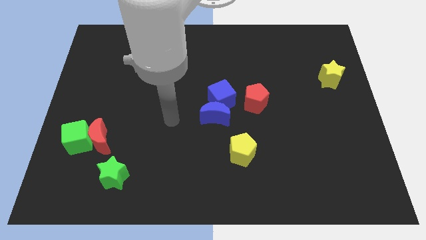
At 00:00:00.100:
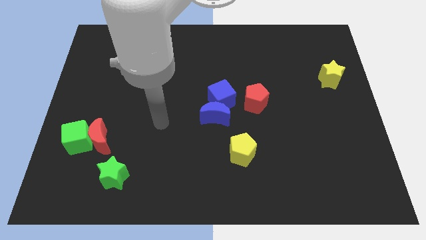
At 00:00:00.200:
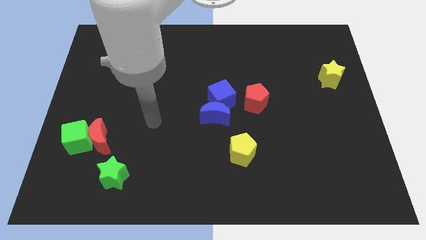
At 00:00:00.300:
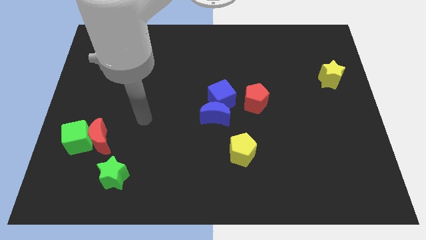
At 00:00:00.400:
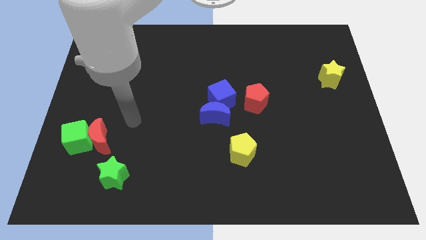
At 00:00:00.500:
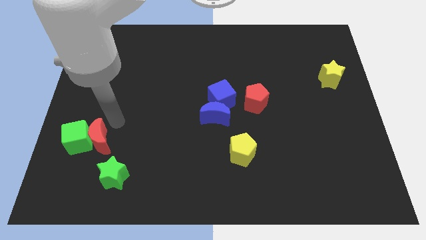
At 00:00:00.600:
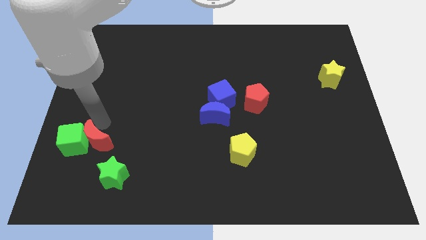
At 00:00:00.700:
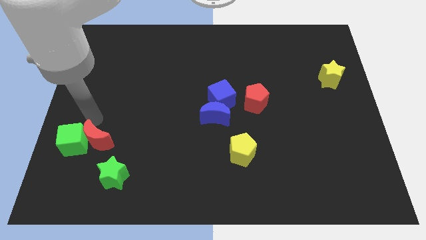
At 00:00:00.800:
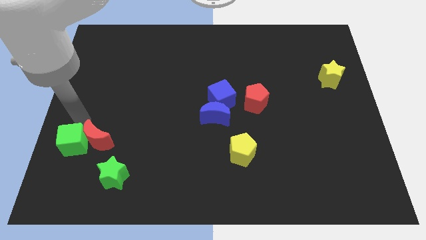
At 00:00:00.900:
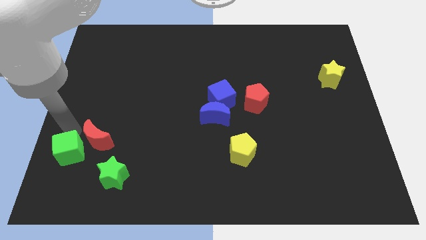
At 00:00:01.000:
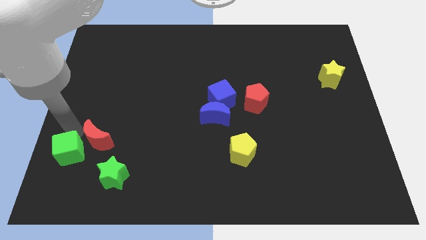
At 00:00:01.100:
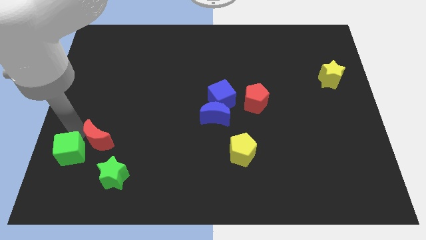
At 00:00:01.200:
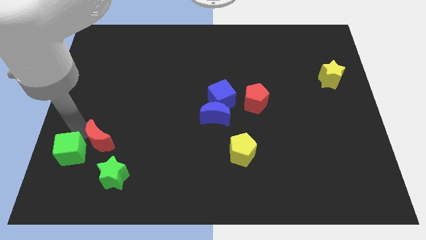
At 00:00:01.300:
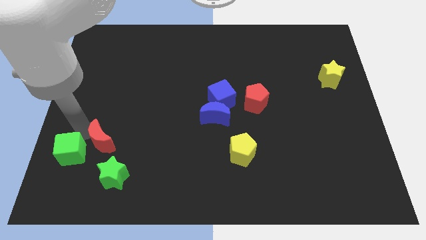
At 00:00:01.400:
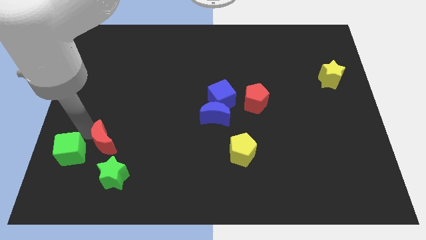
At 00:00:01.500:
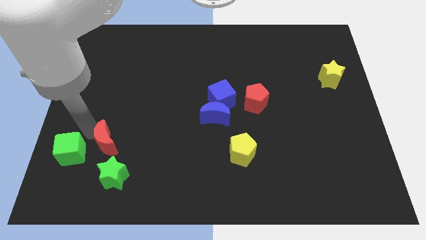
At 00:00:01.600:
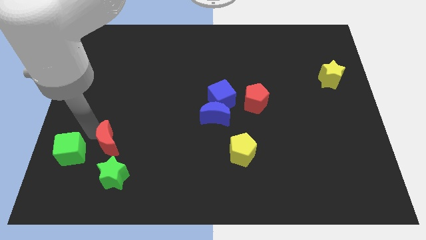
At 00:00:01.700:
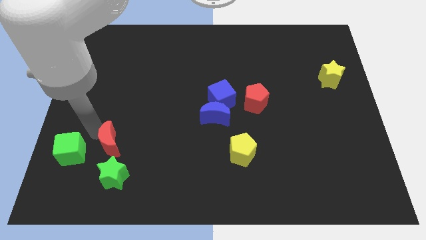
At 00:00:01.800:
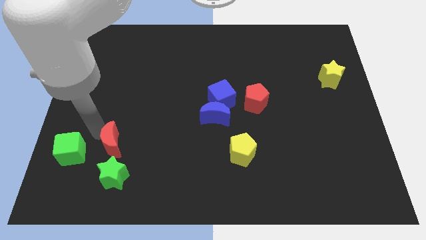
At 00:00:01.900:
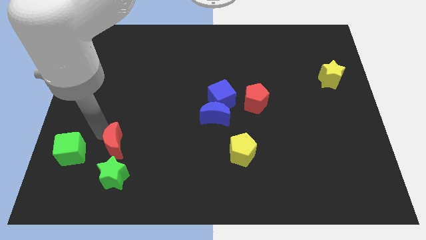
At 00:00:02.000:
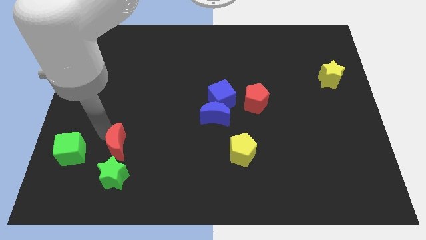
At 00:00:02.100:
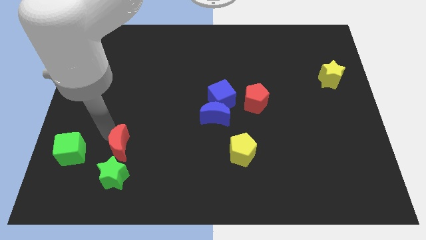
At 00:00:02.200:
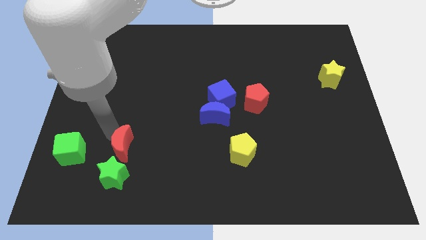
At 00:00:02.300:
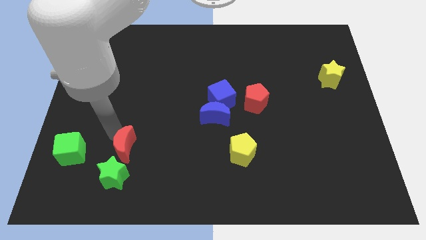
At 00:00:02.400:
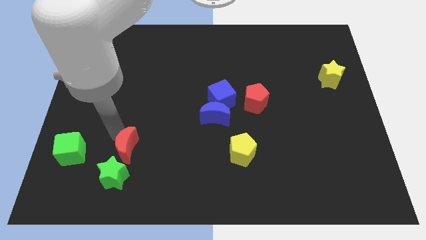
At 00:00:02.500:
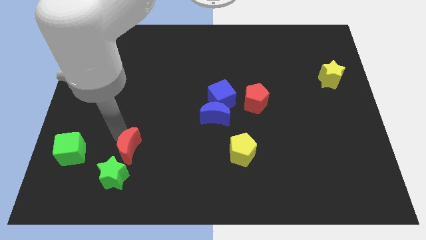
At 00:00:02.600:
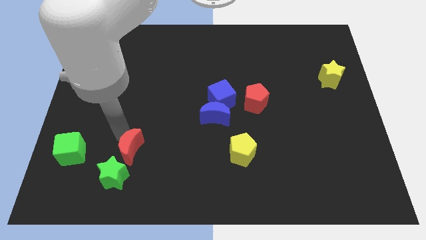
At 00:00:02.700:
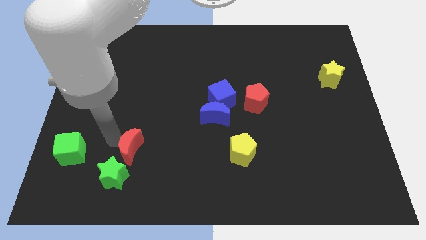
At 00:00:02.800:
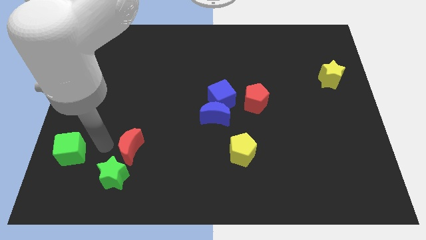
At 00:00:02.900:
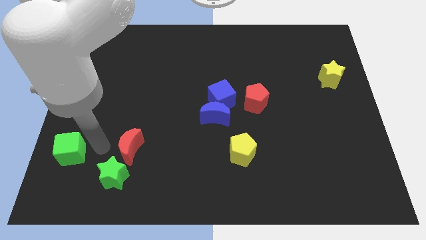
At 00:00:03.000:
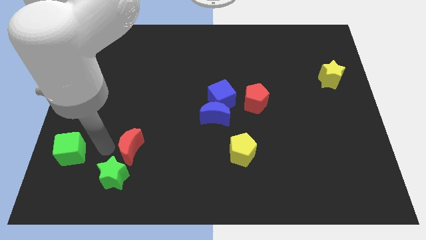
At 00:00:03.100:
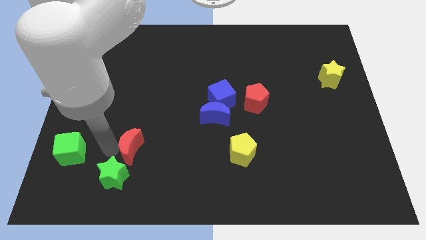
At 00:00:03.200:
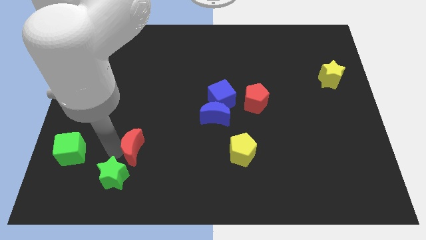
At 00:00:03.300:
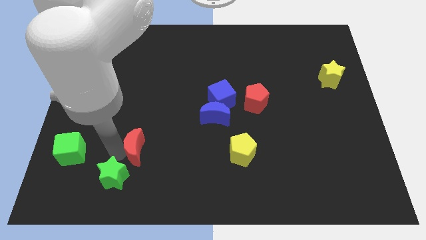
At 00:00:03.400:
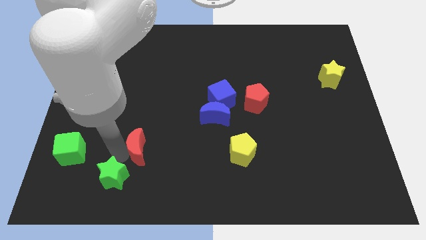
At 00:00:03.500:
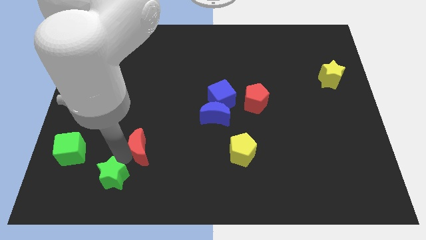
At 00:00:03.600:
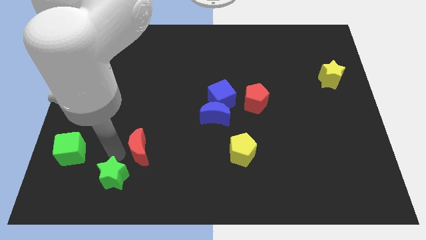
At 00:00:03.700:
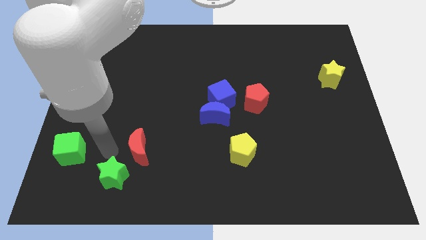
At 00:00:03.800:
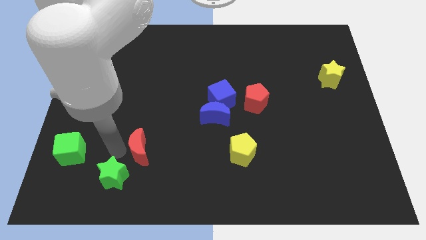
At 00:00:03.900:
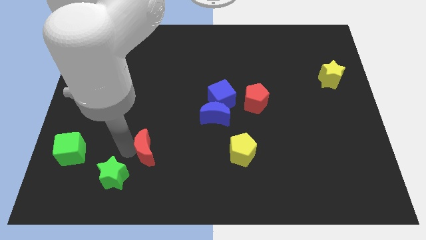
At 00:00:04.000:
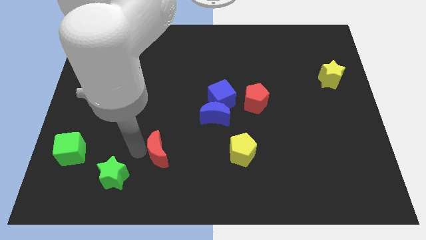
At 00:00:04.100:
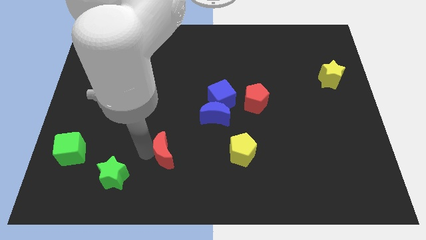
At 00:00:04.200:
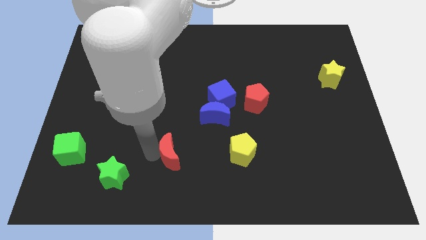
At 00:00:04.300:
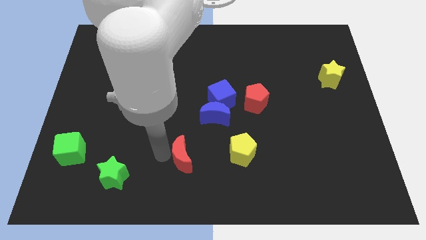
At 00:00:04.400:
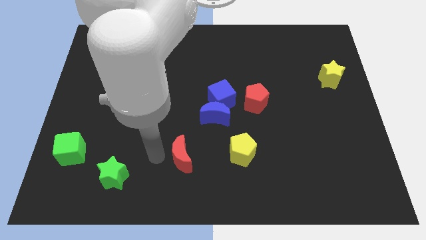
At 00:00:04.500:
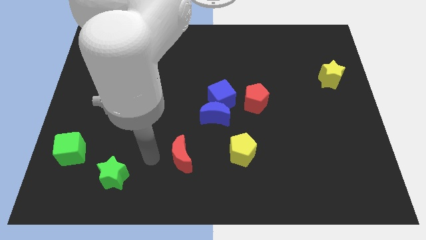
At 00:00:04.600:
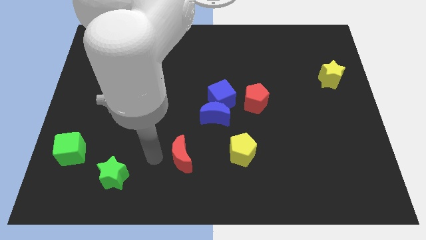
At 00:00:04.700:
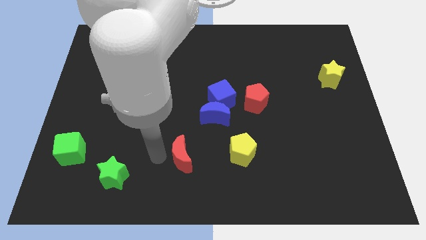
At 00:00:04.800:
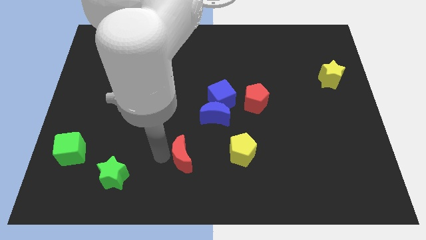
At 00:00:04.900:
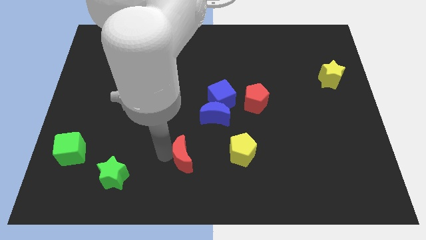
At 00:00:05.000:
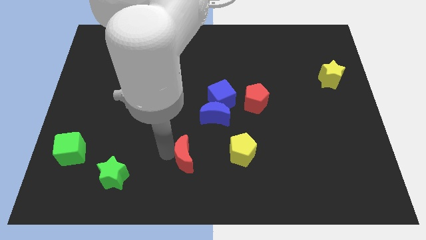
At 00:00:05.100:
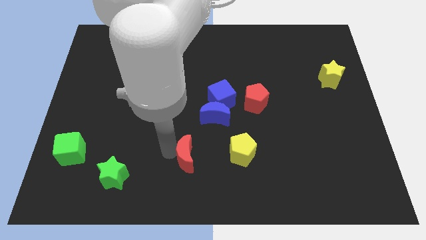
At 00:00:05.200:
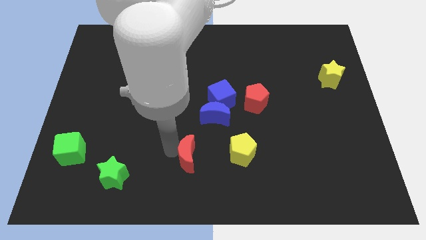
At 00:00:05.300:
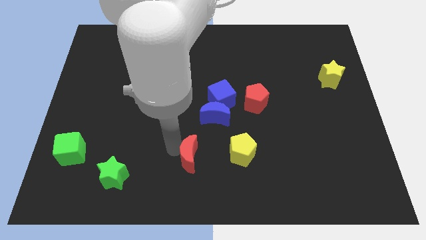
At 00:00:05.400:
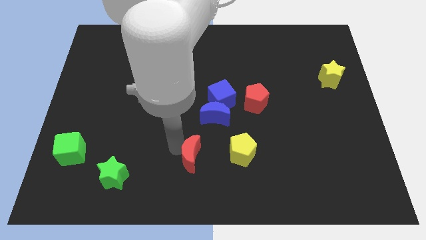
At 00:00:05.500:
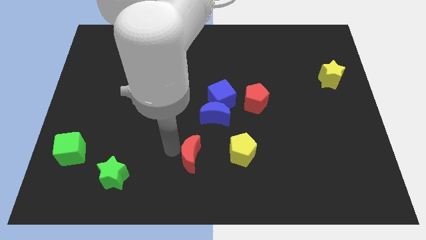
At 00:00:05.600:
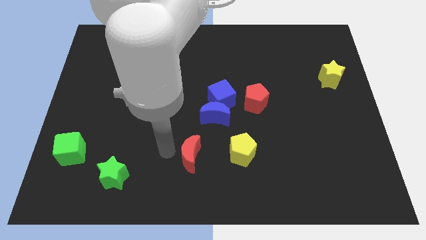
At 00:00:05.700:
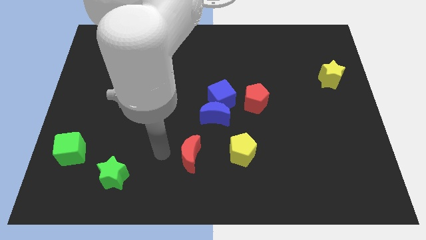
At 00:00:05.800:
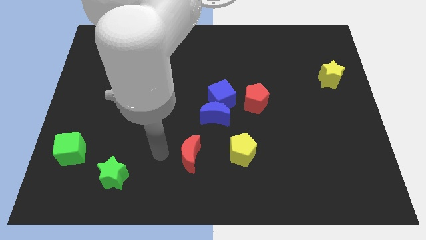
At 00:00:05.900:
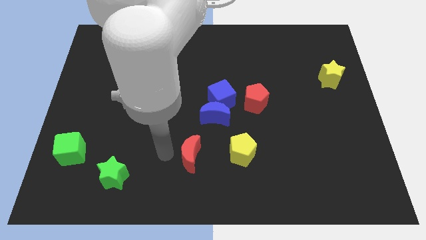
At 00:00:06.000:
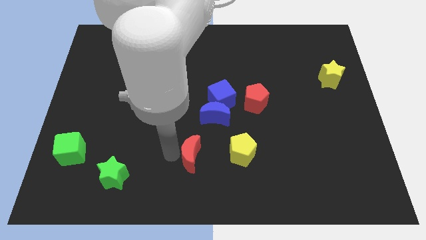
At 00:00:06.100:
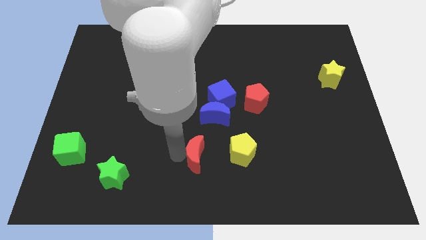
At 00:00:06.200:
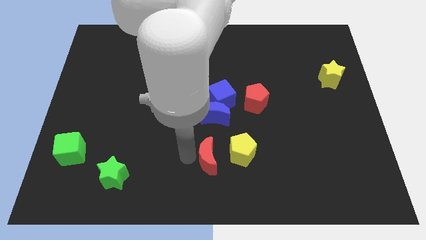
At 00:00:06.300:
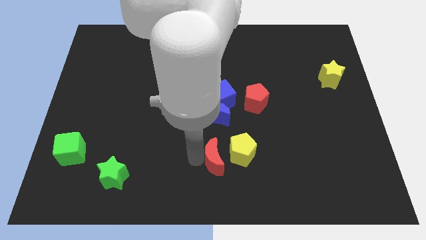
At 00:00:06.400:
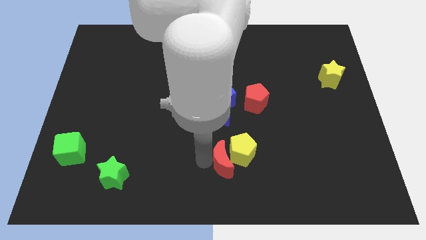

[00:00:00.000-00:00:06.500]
slide the red moon next to the yellow pentagon

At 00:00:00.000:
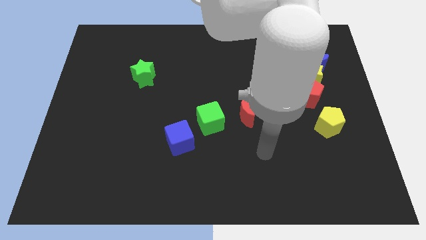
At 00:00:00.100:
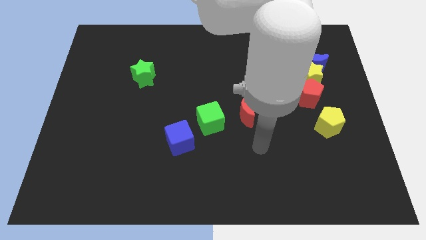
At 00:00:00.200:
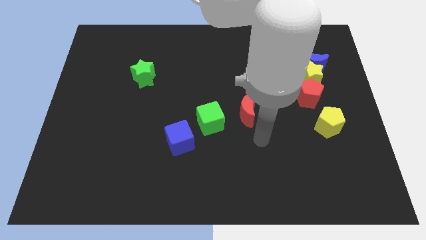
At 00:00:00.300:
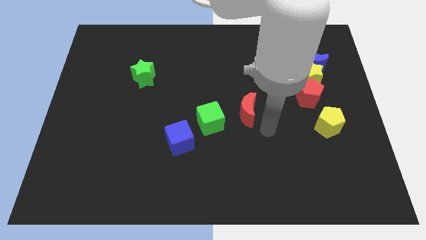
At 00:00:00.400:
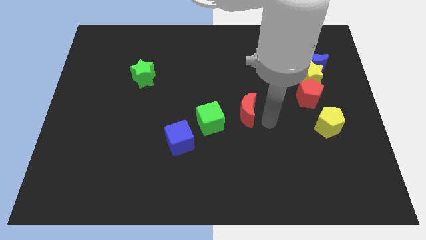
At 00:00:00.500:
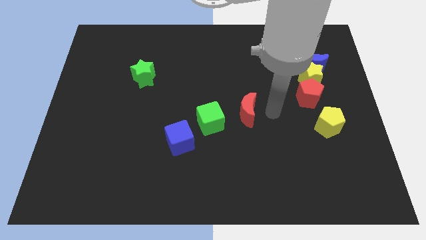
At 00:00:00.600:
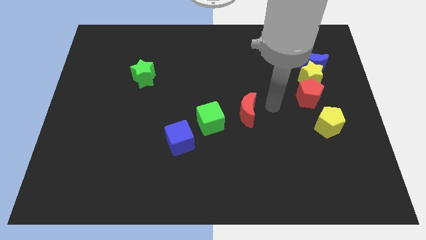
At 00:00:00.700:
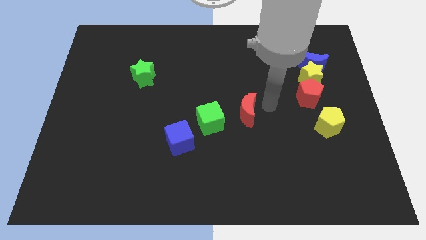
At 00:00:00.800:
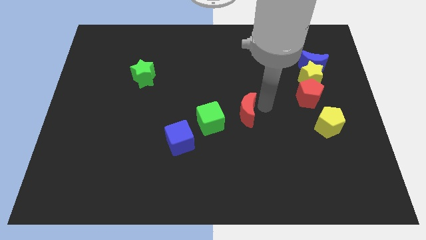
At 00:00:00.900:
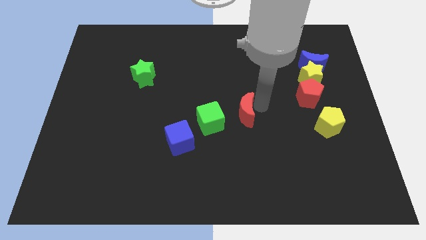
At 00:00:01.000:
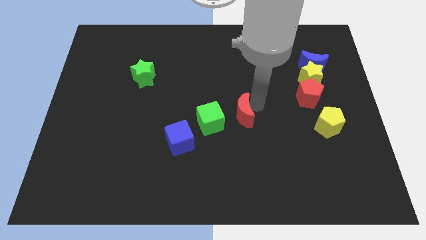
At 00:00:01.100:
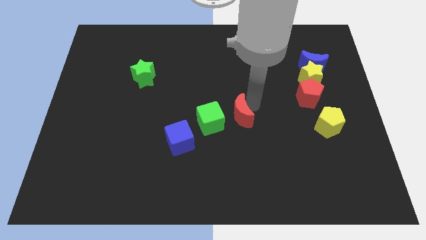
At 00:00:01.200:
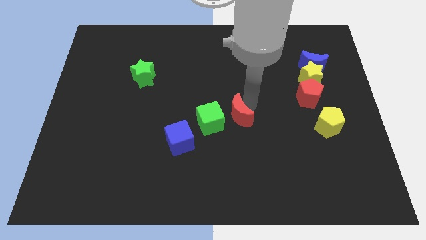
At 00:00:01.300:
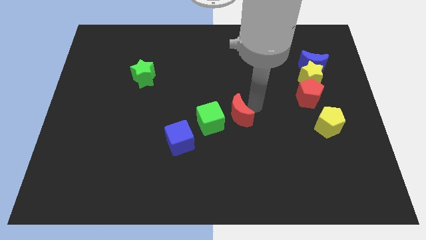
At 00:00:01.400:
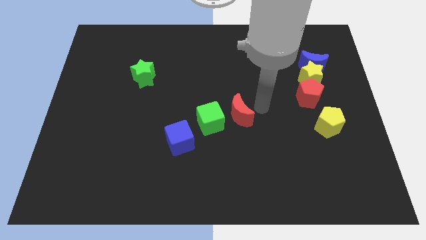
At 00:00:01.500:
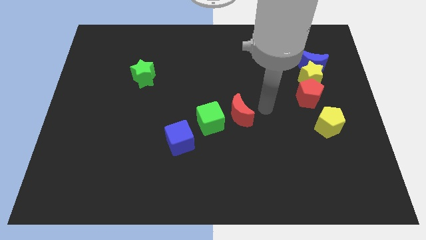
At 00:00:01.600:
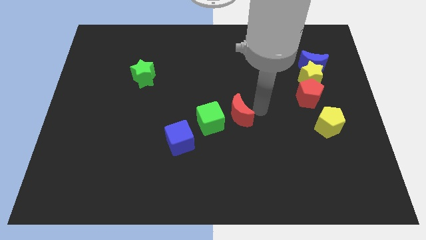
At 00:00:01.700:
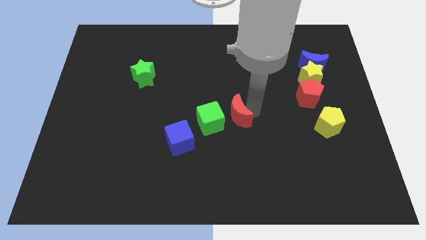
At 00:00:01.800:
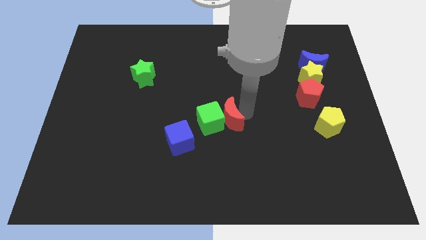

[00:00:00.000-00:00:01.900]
move the red moon to the green cube
